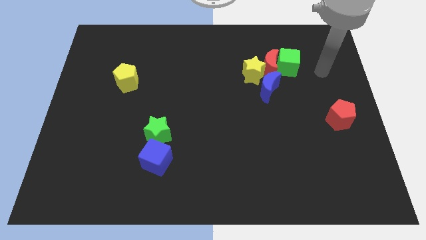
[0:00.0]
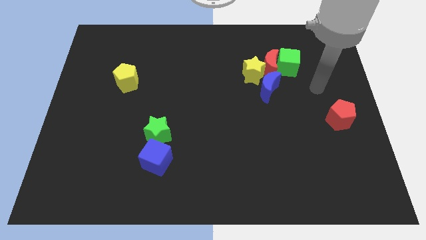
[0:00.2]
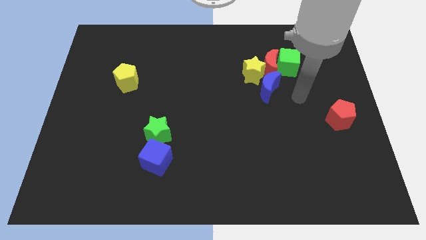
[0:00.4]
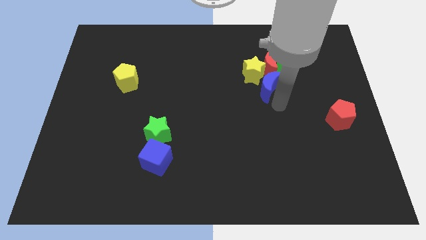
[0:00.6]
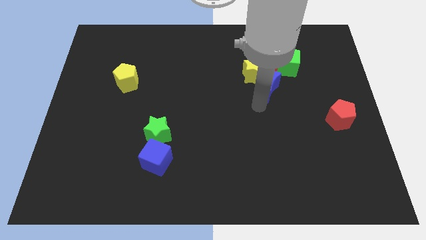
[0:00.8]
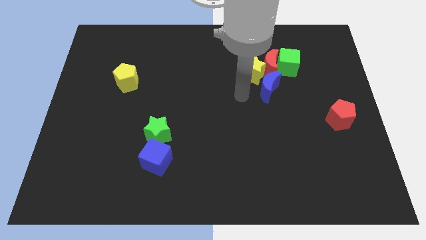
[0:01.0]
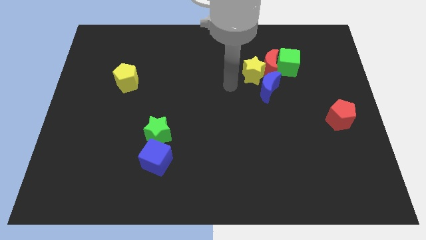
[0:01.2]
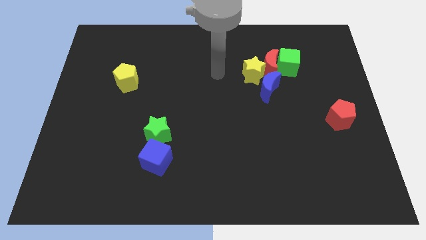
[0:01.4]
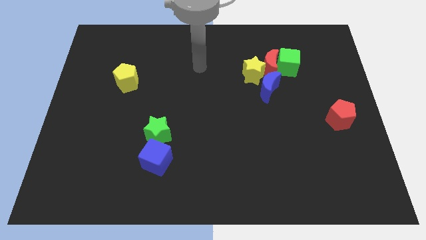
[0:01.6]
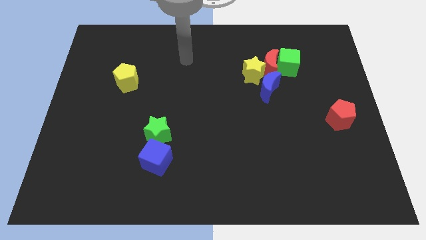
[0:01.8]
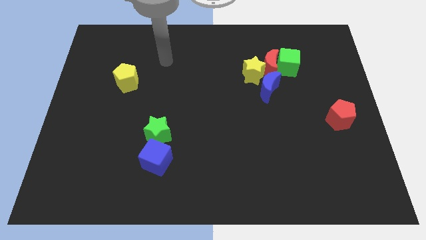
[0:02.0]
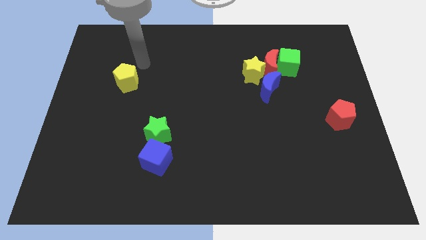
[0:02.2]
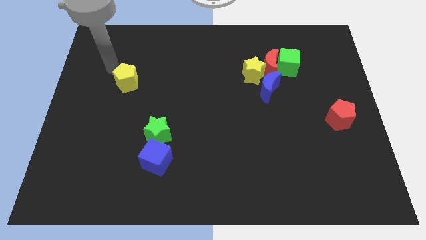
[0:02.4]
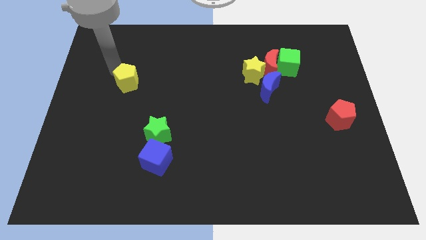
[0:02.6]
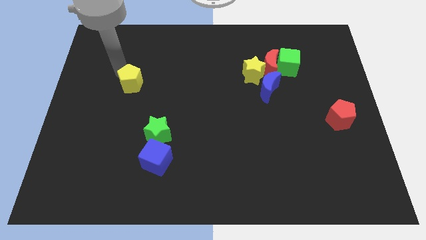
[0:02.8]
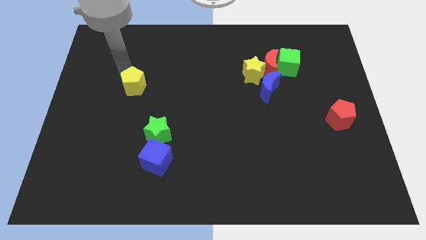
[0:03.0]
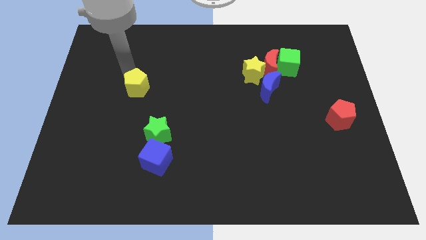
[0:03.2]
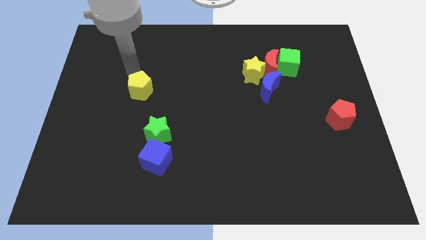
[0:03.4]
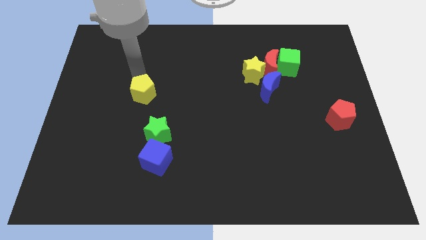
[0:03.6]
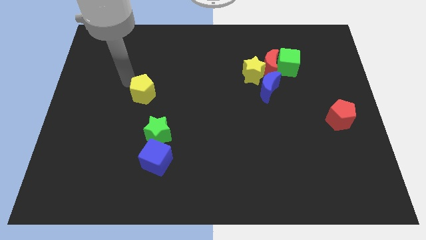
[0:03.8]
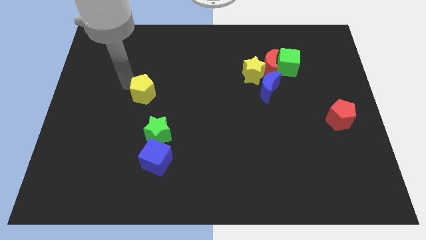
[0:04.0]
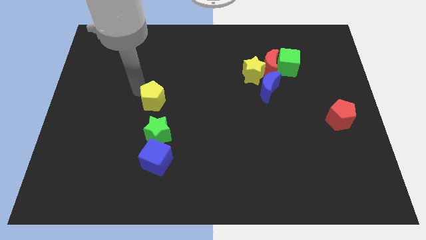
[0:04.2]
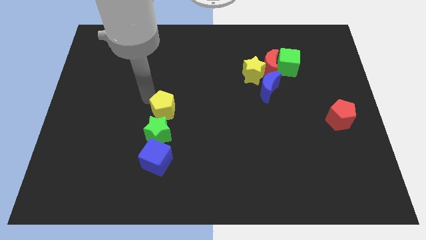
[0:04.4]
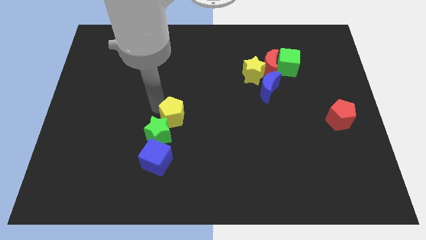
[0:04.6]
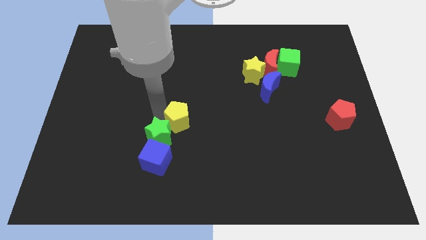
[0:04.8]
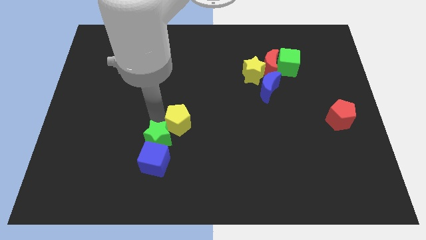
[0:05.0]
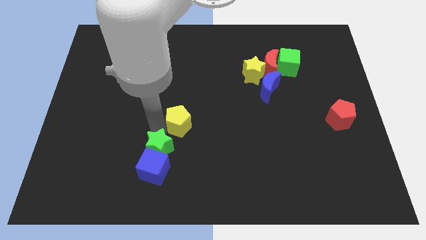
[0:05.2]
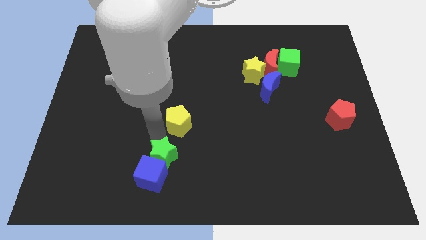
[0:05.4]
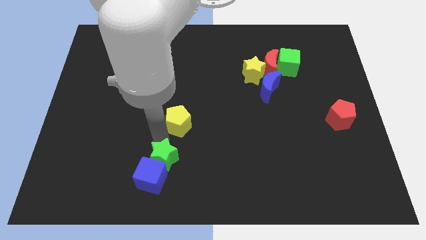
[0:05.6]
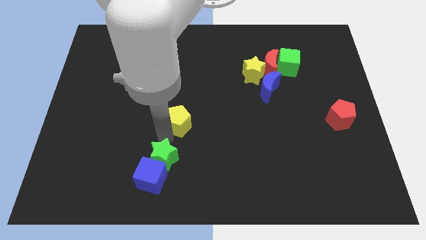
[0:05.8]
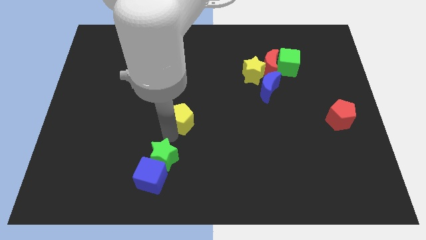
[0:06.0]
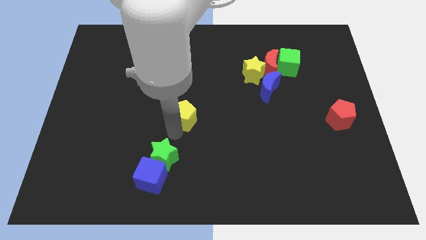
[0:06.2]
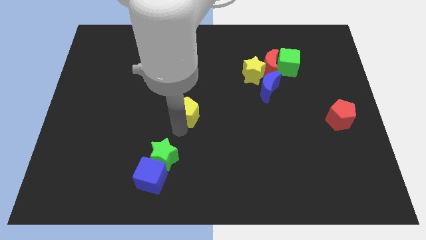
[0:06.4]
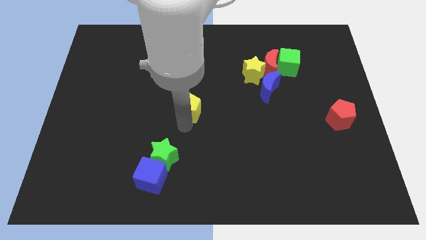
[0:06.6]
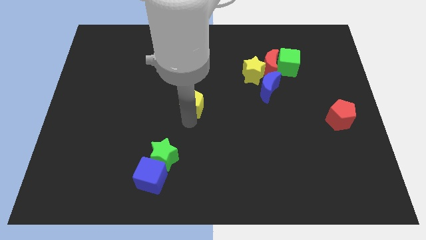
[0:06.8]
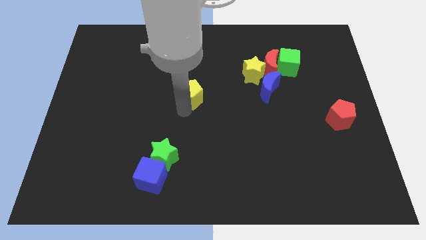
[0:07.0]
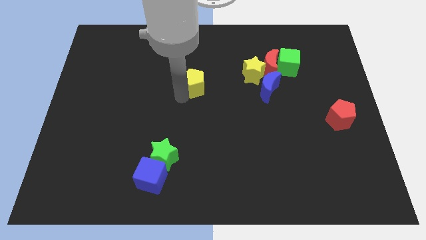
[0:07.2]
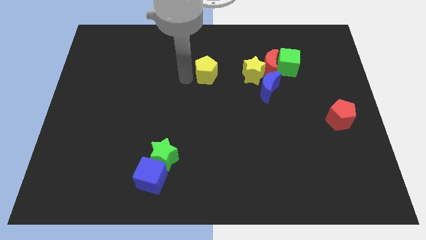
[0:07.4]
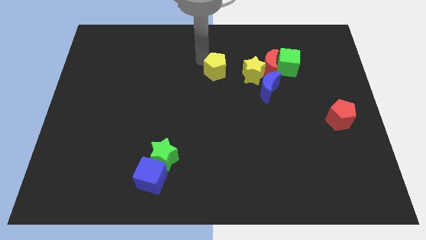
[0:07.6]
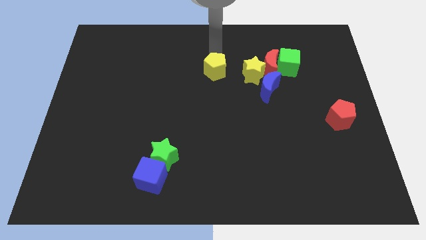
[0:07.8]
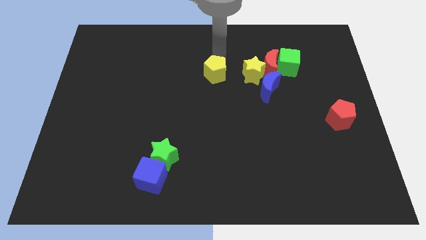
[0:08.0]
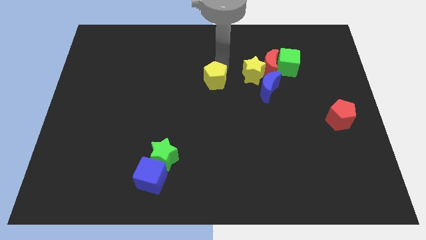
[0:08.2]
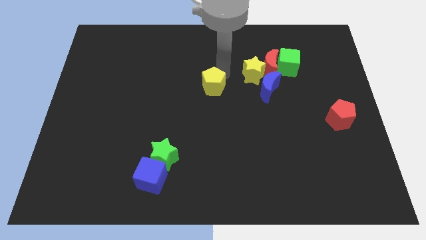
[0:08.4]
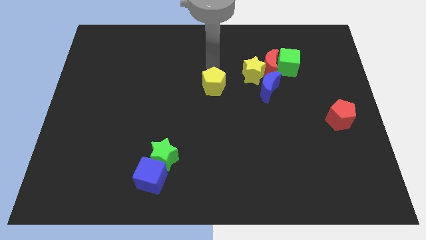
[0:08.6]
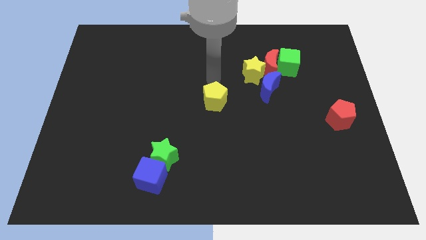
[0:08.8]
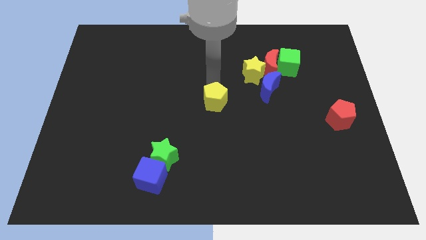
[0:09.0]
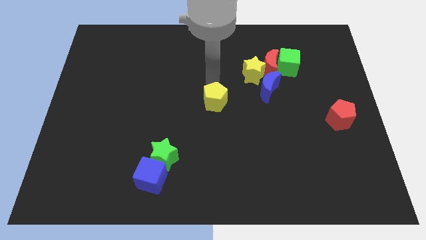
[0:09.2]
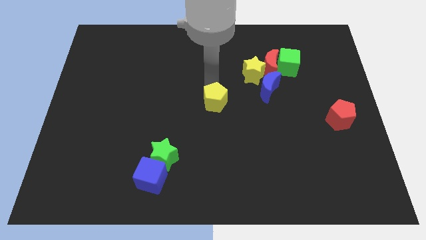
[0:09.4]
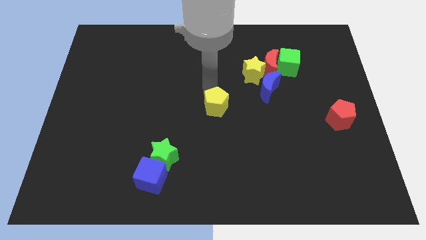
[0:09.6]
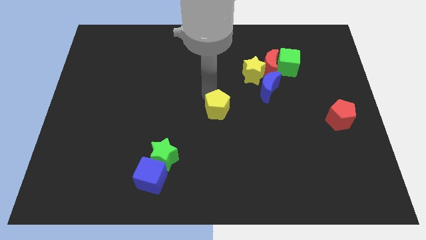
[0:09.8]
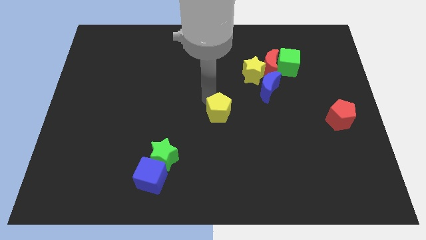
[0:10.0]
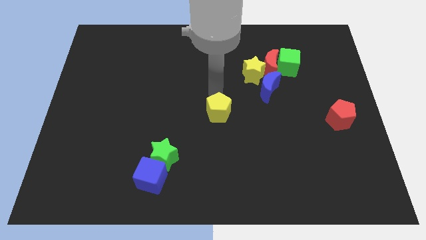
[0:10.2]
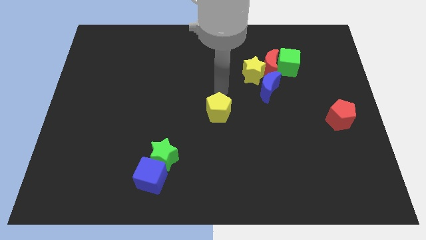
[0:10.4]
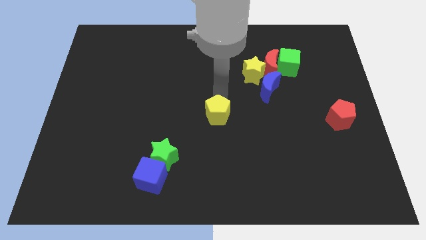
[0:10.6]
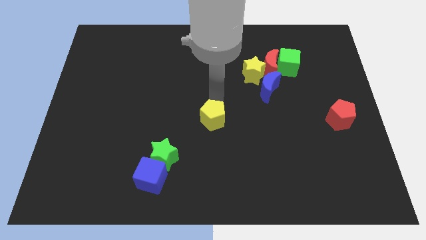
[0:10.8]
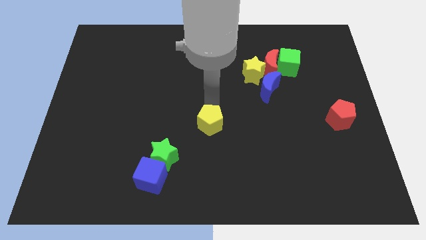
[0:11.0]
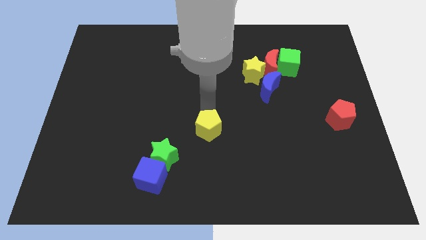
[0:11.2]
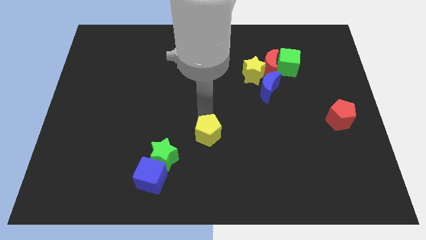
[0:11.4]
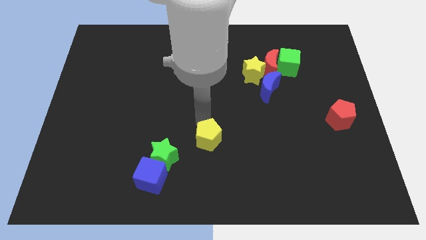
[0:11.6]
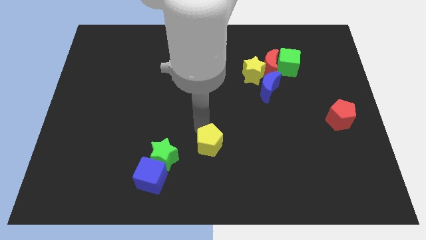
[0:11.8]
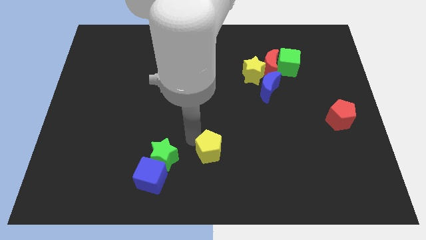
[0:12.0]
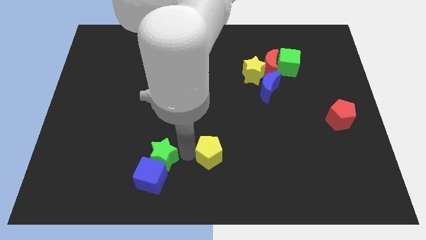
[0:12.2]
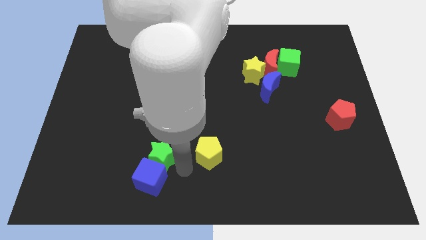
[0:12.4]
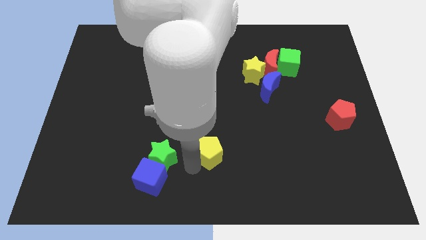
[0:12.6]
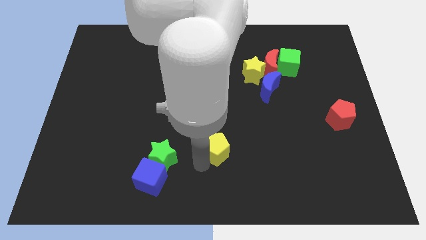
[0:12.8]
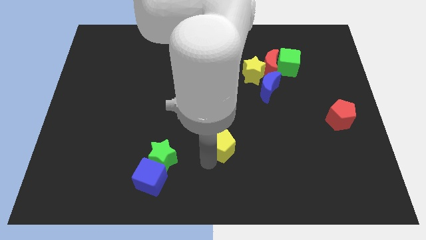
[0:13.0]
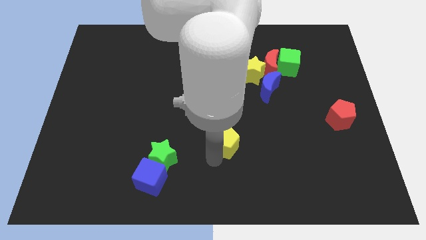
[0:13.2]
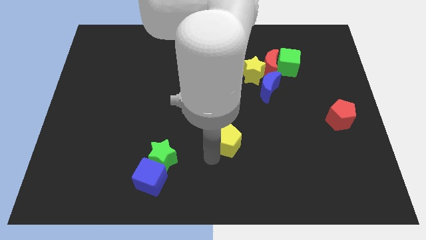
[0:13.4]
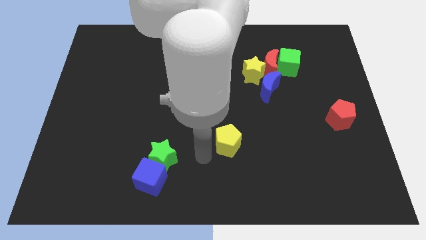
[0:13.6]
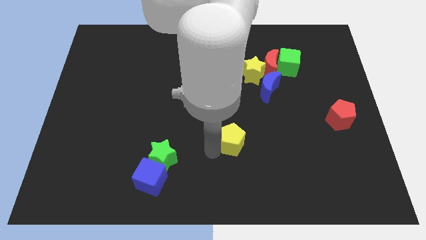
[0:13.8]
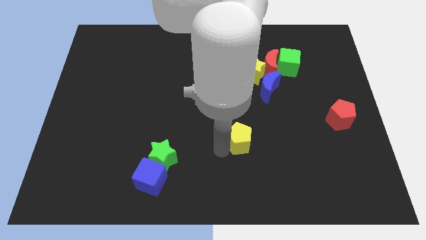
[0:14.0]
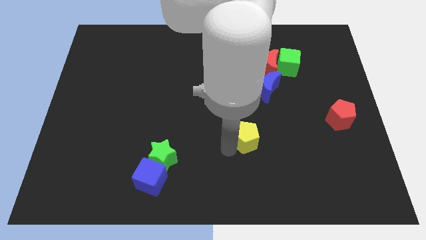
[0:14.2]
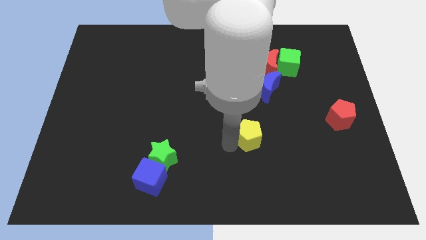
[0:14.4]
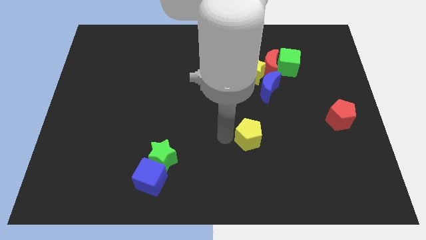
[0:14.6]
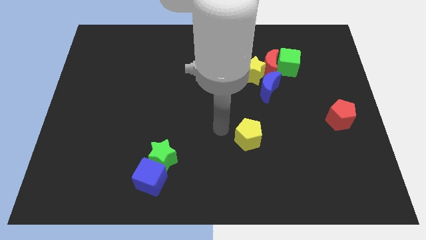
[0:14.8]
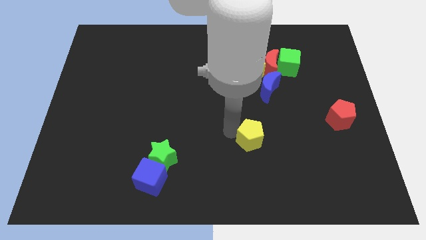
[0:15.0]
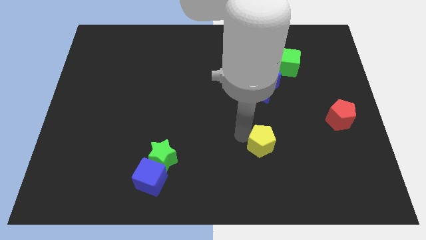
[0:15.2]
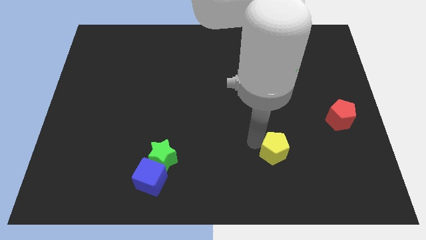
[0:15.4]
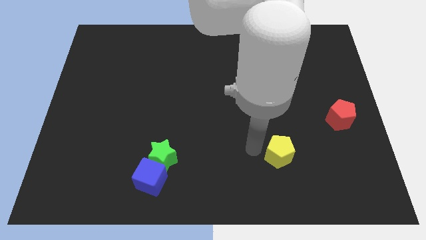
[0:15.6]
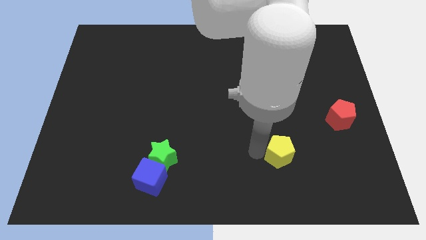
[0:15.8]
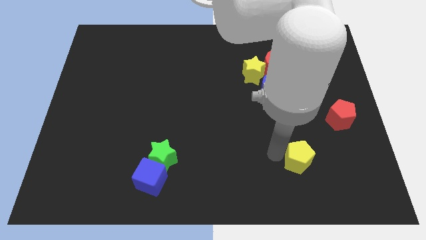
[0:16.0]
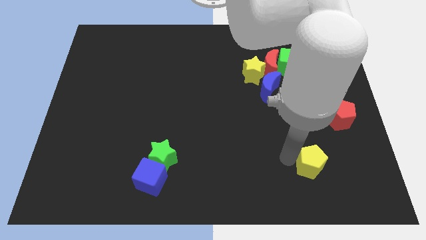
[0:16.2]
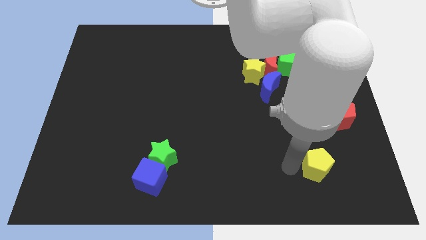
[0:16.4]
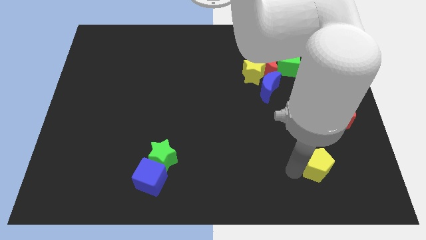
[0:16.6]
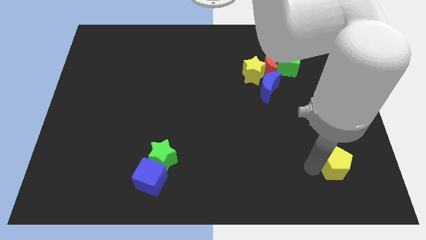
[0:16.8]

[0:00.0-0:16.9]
move the yellow pentagon below the red pentagon
